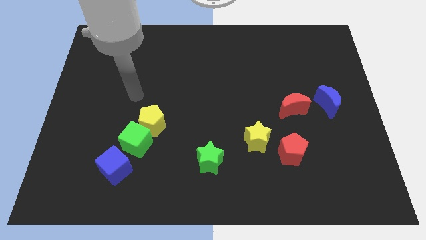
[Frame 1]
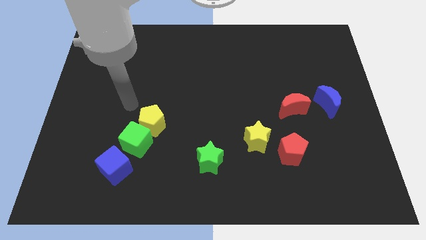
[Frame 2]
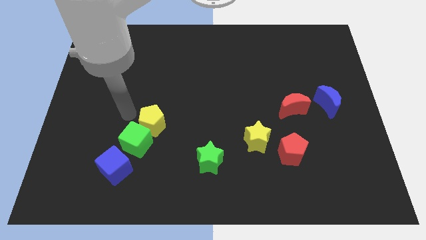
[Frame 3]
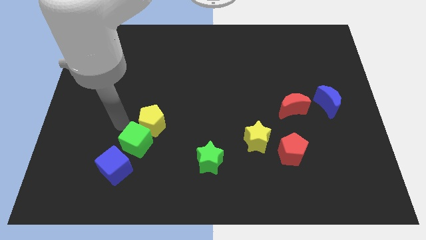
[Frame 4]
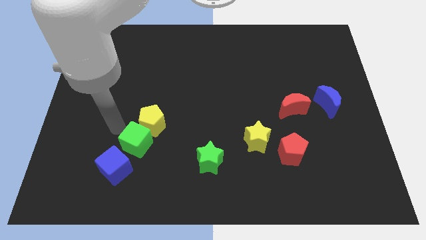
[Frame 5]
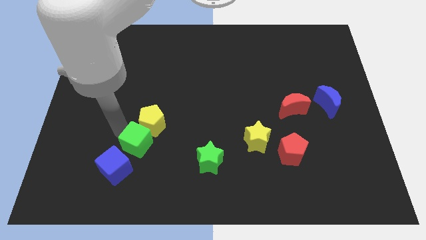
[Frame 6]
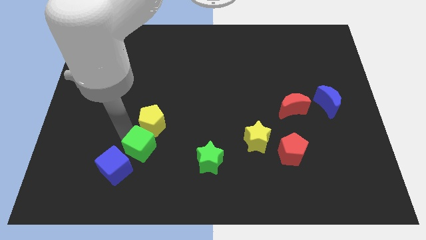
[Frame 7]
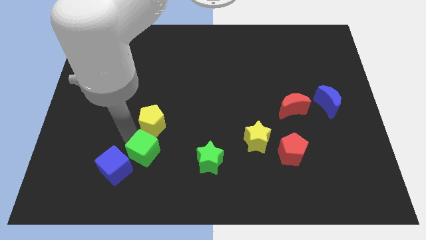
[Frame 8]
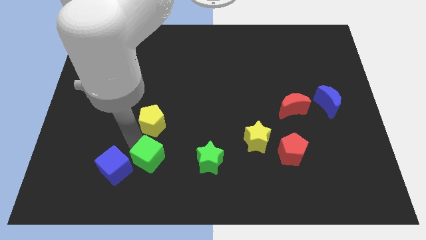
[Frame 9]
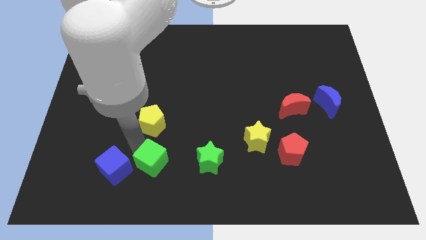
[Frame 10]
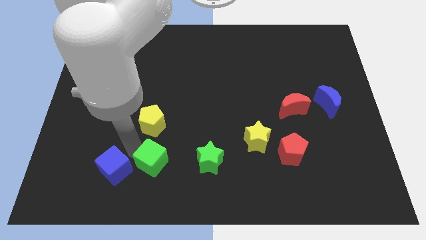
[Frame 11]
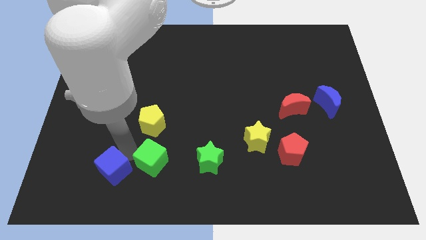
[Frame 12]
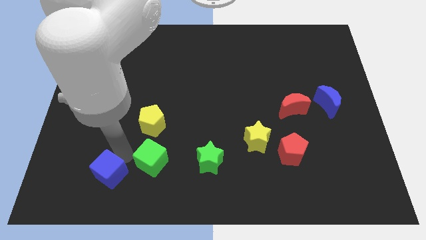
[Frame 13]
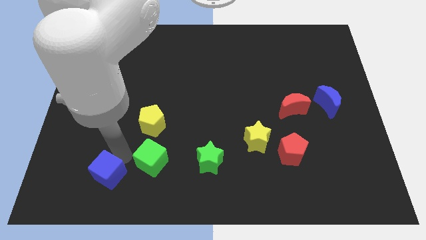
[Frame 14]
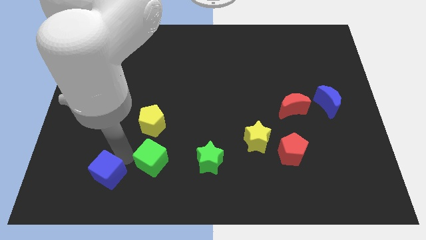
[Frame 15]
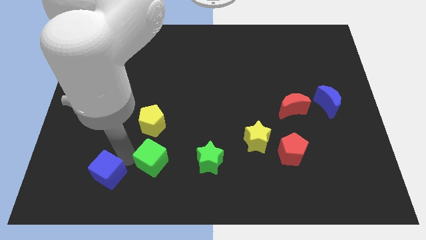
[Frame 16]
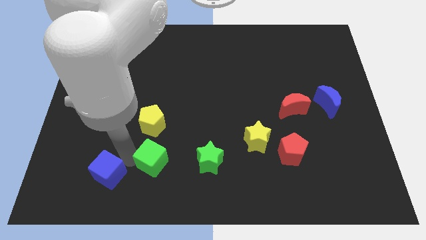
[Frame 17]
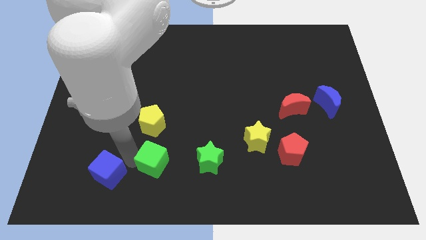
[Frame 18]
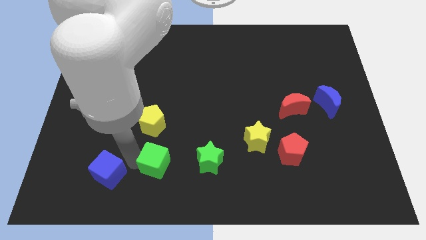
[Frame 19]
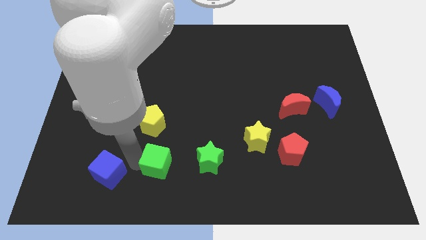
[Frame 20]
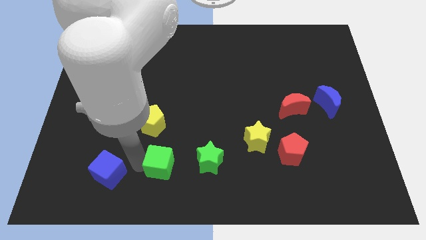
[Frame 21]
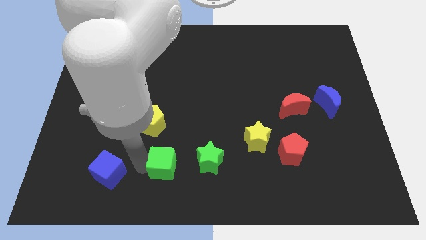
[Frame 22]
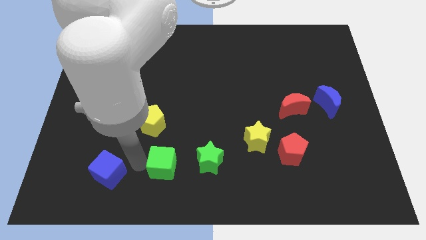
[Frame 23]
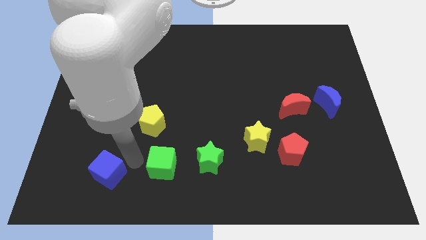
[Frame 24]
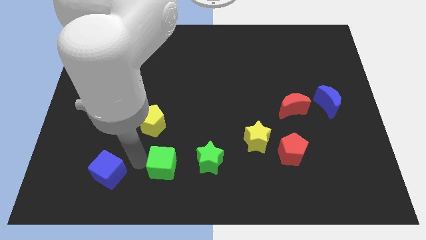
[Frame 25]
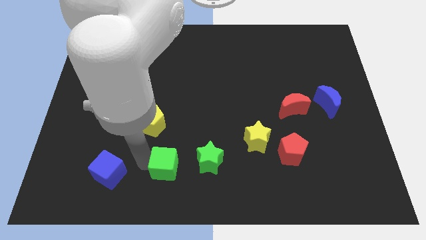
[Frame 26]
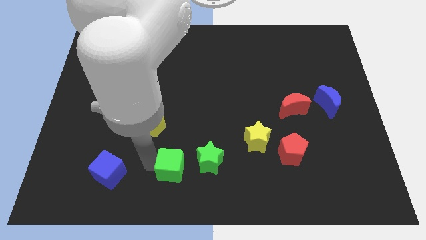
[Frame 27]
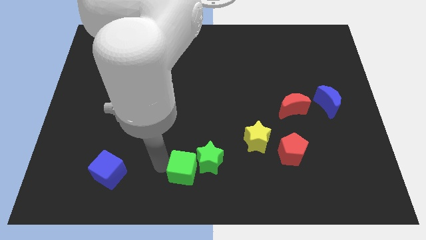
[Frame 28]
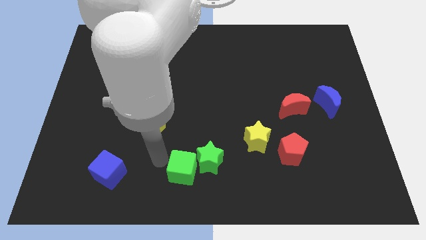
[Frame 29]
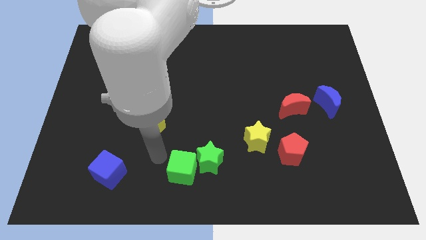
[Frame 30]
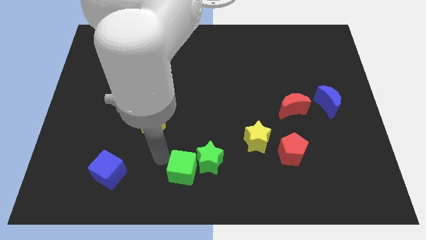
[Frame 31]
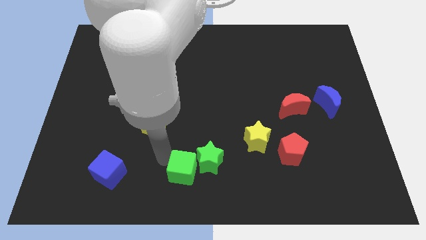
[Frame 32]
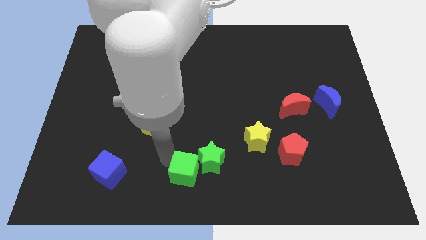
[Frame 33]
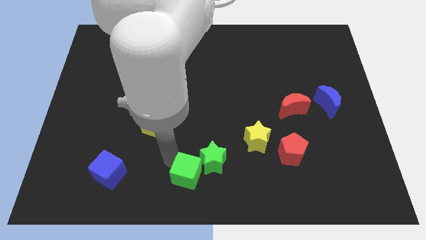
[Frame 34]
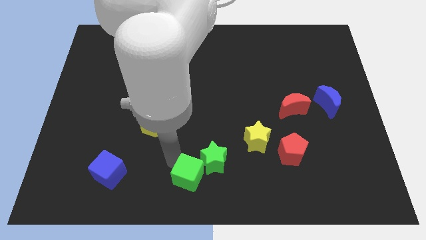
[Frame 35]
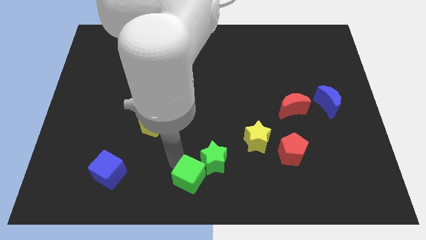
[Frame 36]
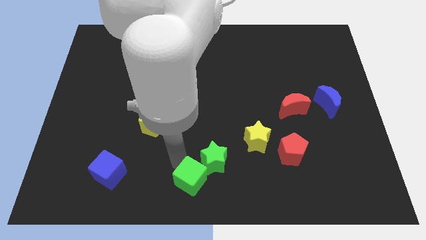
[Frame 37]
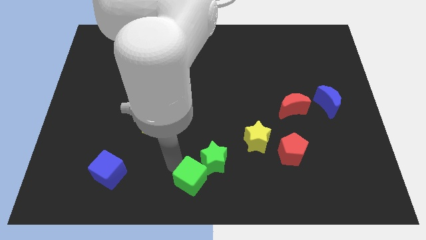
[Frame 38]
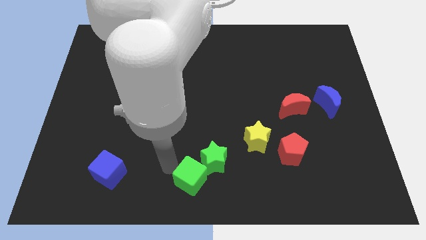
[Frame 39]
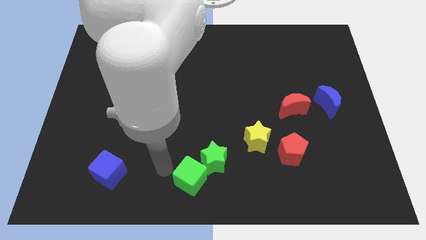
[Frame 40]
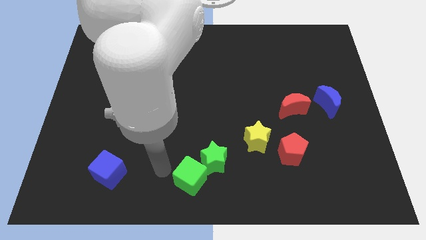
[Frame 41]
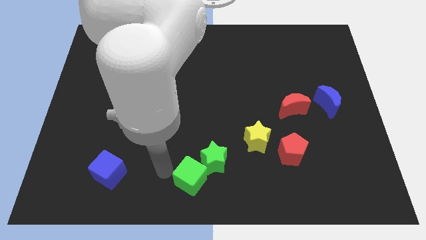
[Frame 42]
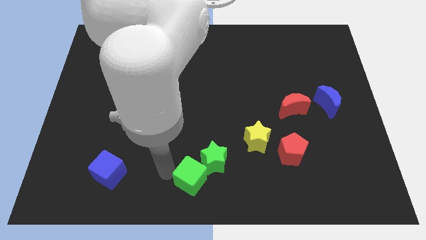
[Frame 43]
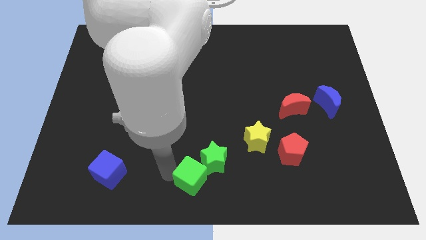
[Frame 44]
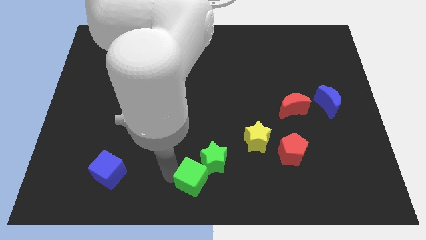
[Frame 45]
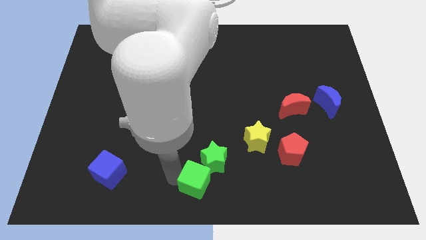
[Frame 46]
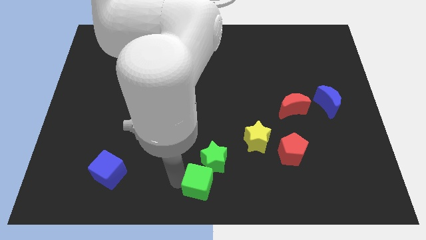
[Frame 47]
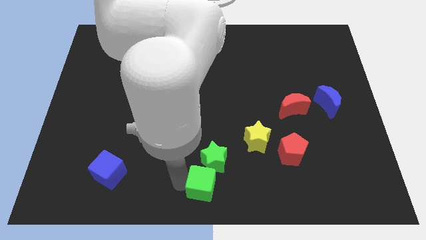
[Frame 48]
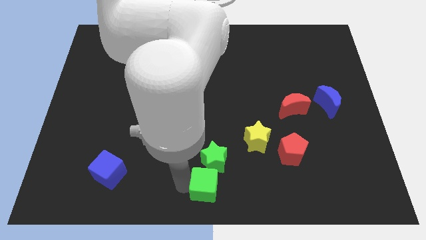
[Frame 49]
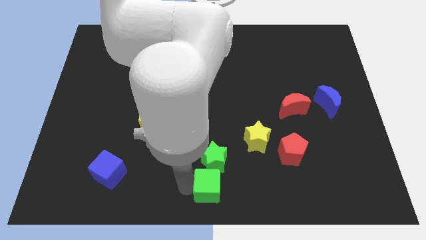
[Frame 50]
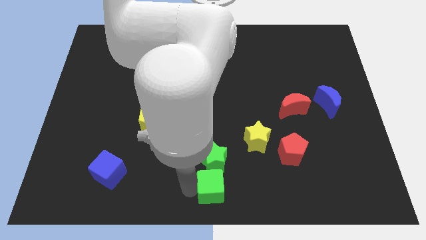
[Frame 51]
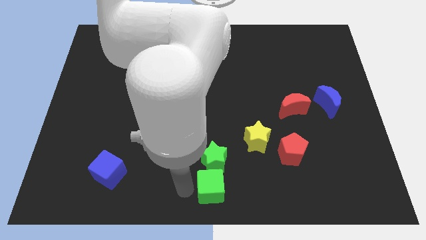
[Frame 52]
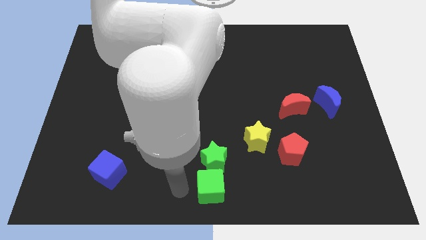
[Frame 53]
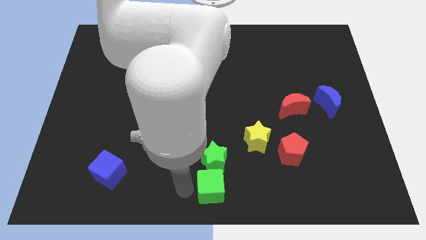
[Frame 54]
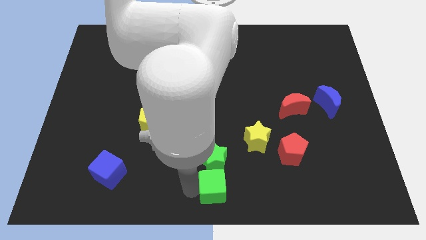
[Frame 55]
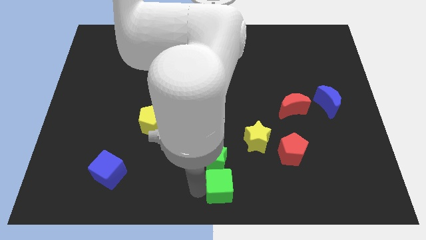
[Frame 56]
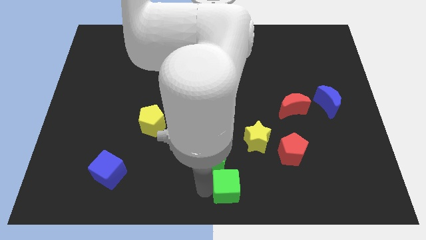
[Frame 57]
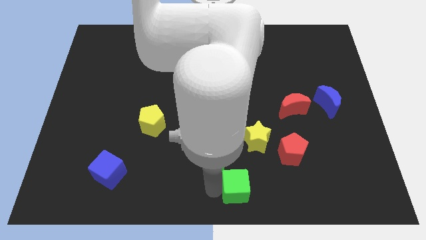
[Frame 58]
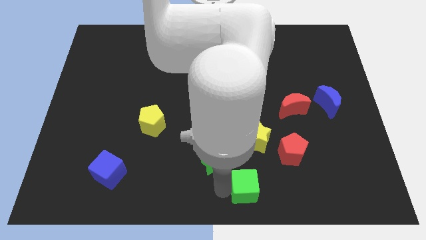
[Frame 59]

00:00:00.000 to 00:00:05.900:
slide the green cube to the bottom side of the yellow star

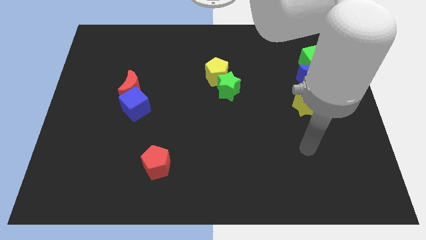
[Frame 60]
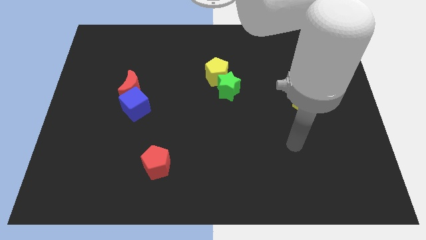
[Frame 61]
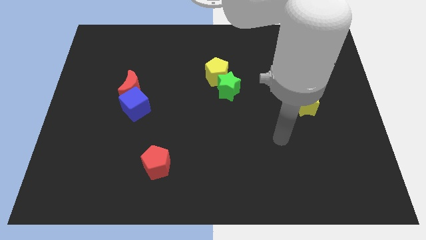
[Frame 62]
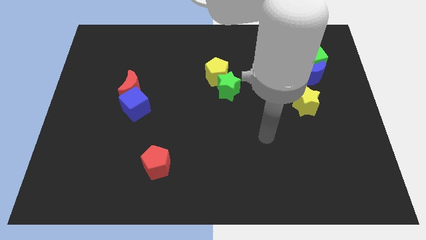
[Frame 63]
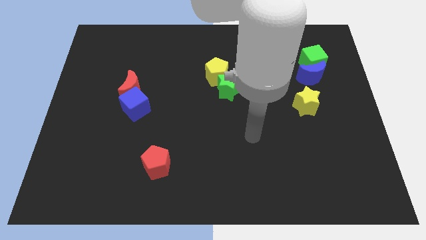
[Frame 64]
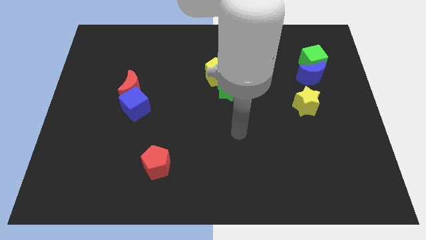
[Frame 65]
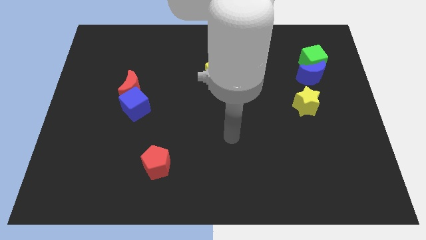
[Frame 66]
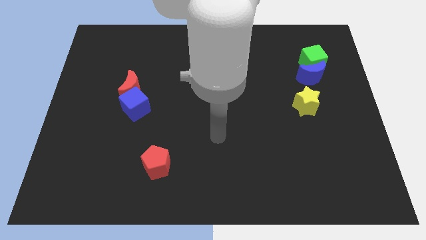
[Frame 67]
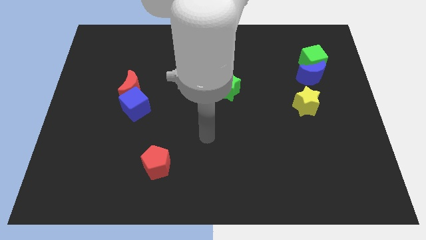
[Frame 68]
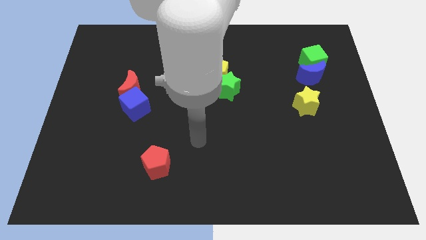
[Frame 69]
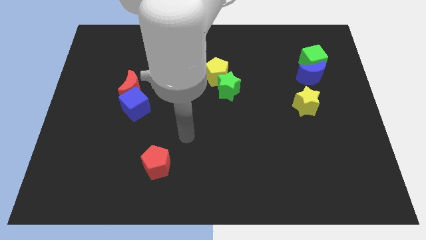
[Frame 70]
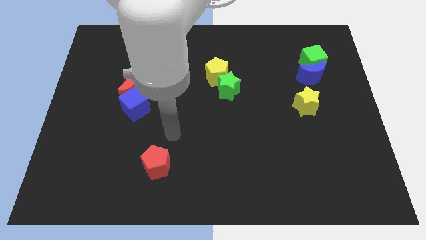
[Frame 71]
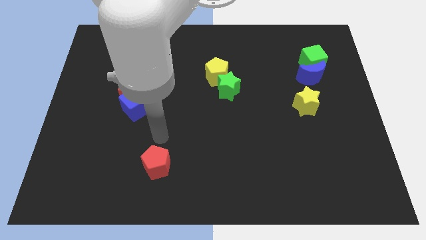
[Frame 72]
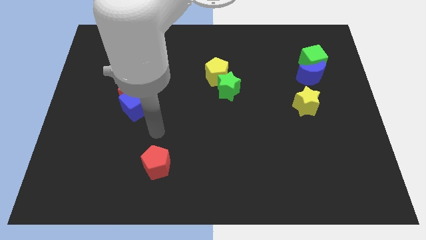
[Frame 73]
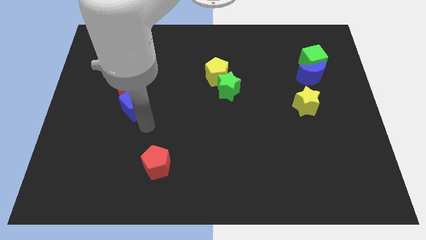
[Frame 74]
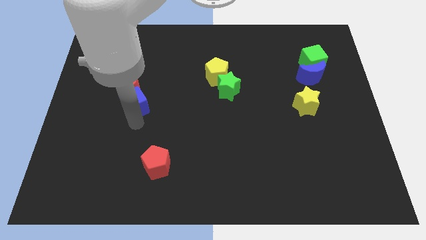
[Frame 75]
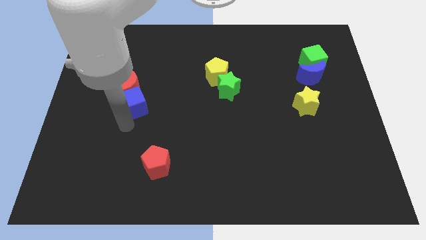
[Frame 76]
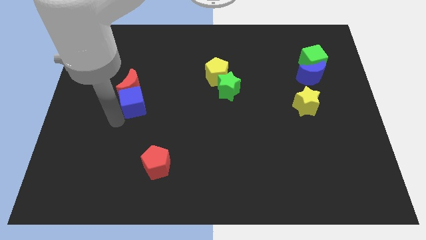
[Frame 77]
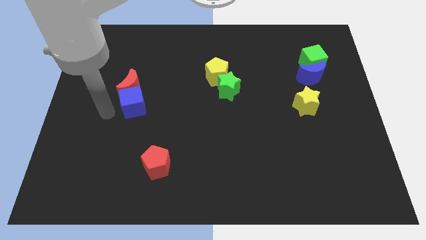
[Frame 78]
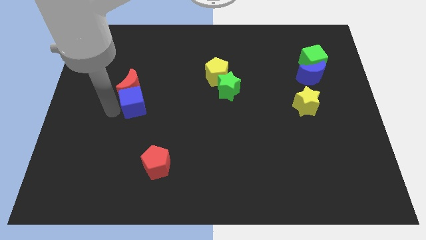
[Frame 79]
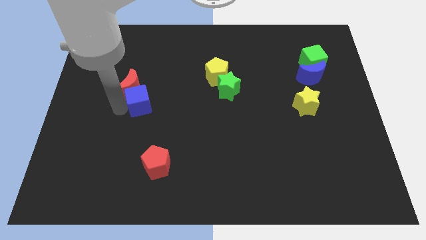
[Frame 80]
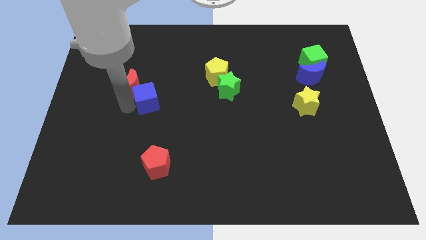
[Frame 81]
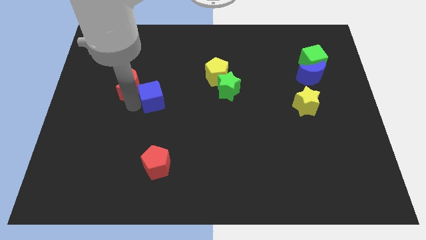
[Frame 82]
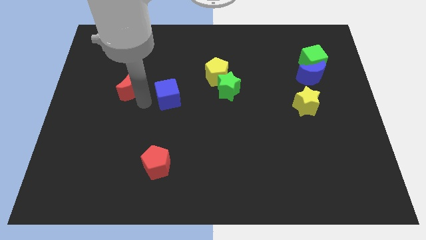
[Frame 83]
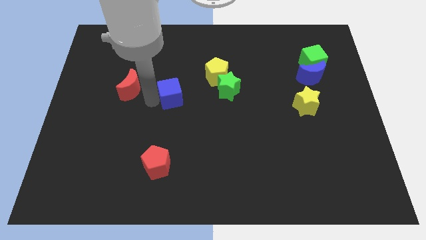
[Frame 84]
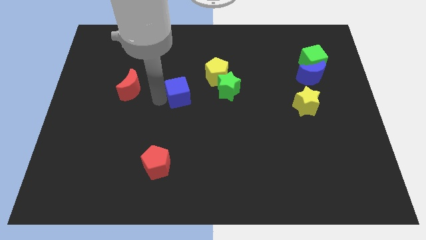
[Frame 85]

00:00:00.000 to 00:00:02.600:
put the blue cube to the bottom left side of the yellow pentagon
